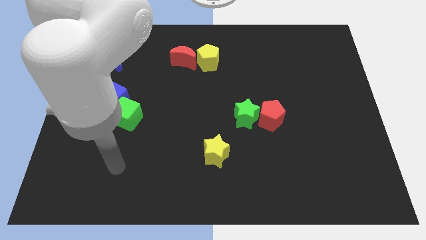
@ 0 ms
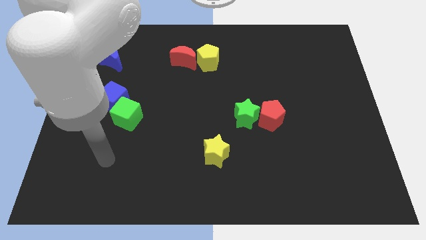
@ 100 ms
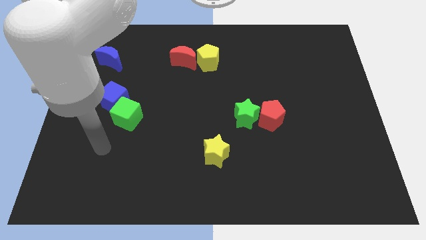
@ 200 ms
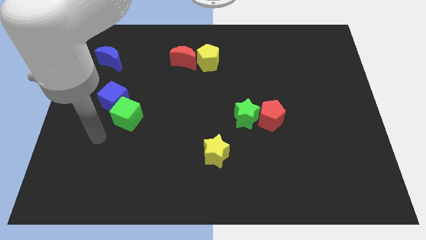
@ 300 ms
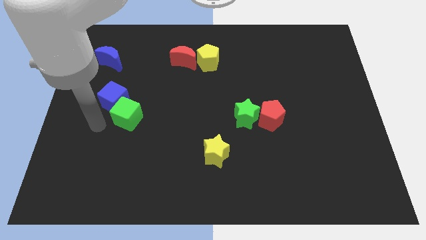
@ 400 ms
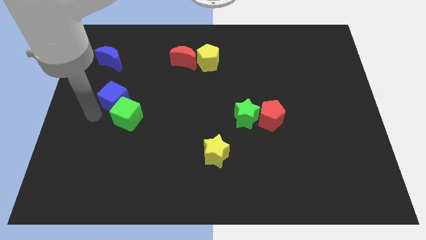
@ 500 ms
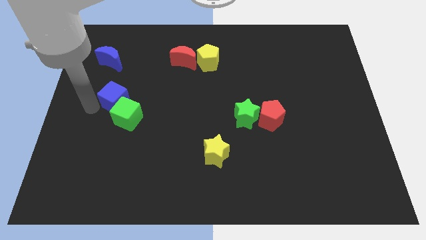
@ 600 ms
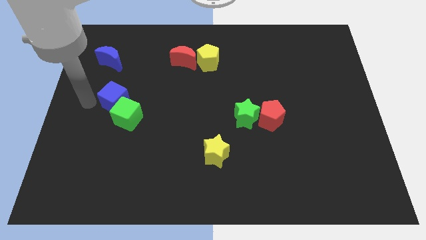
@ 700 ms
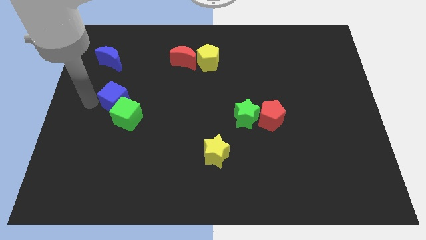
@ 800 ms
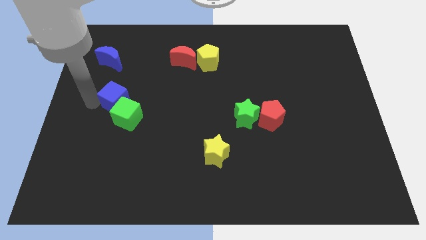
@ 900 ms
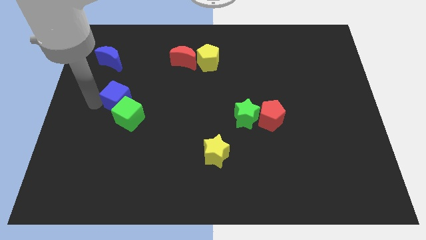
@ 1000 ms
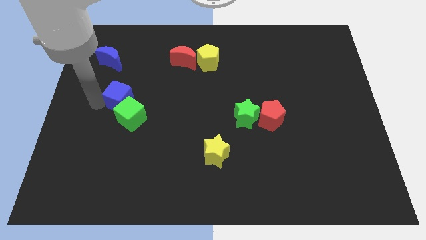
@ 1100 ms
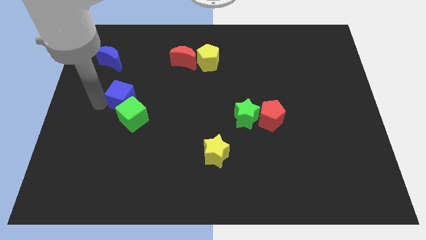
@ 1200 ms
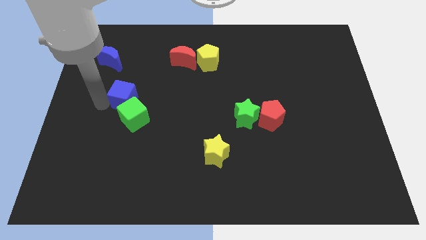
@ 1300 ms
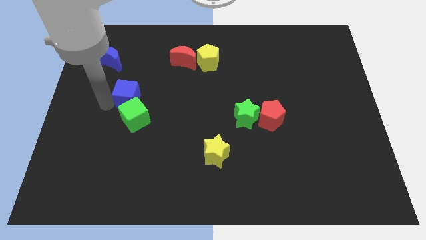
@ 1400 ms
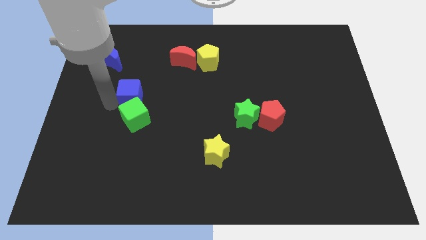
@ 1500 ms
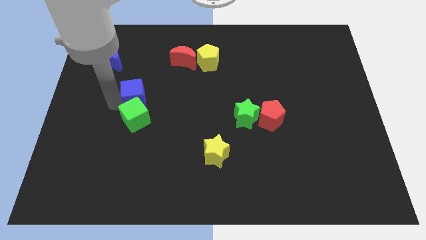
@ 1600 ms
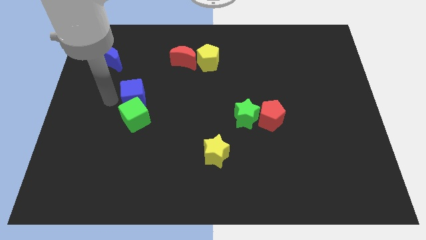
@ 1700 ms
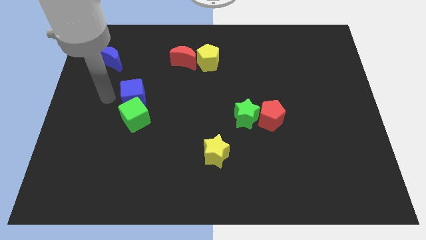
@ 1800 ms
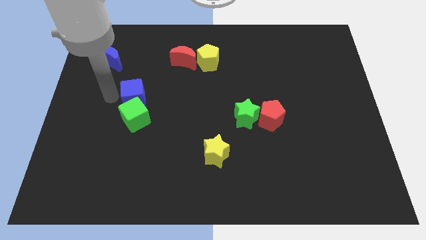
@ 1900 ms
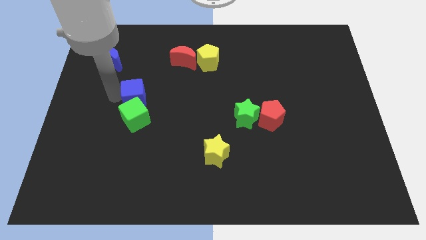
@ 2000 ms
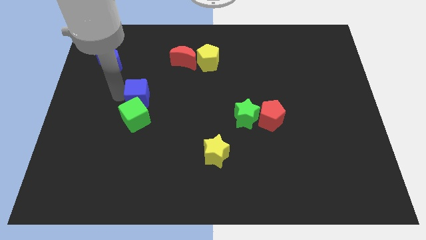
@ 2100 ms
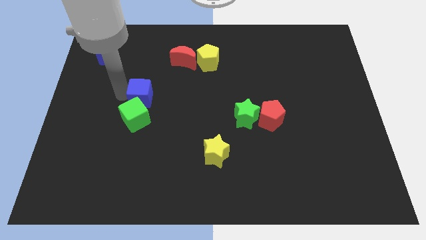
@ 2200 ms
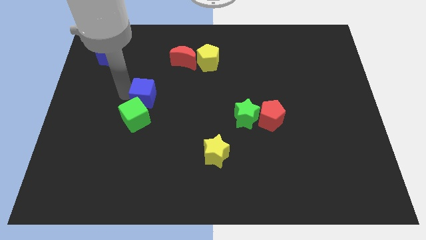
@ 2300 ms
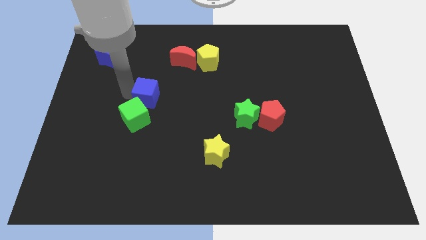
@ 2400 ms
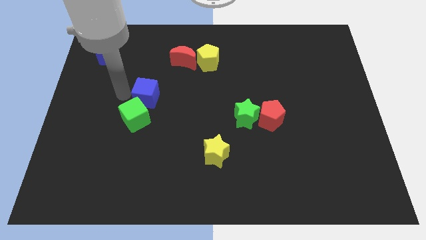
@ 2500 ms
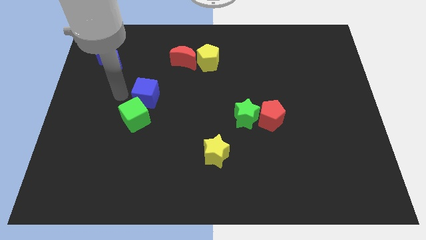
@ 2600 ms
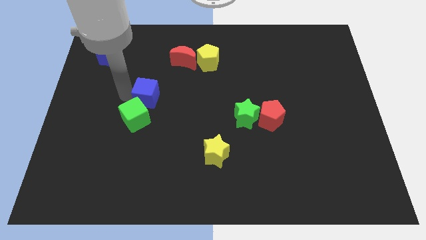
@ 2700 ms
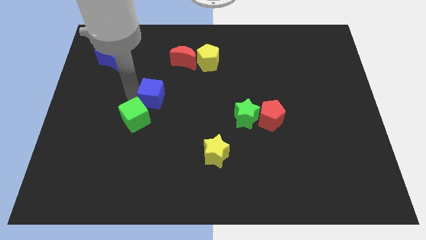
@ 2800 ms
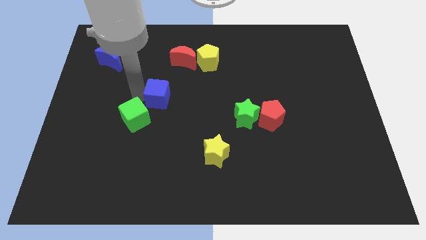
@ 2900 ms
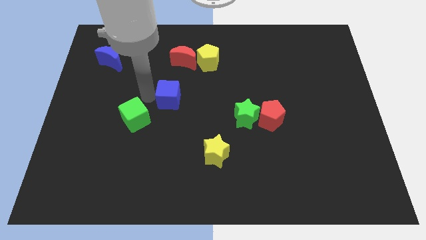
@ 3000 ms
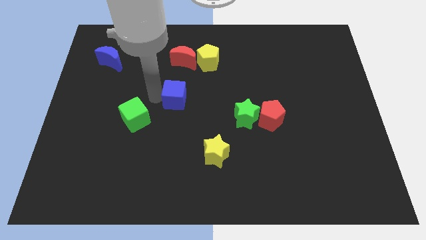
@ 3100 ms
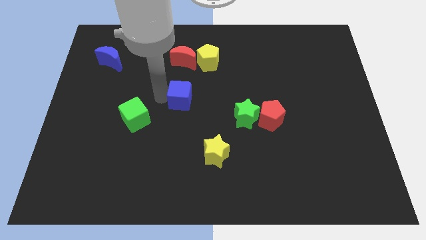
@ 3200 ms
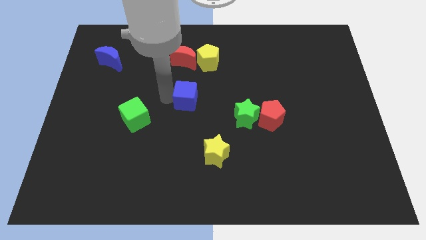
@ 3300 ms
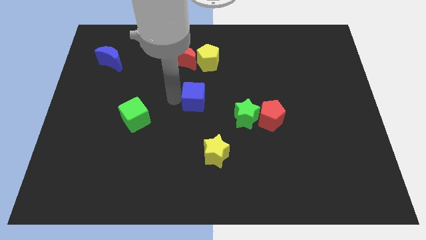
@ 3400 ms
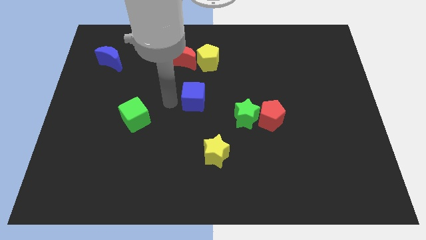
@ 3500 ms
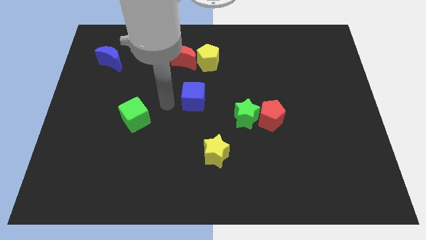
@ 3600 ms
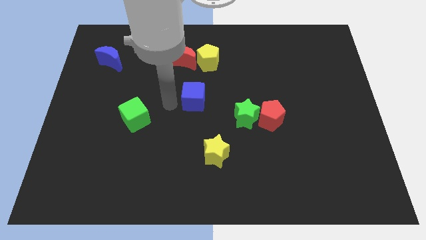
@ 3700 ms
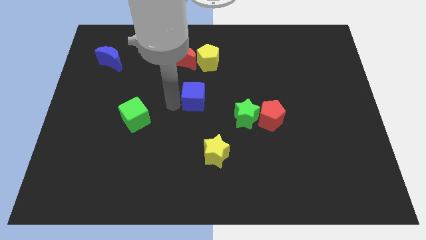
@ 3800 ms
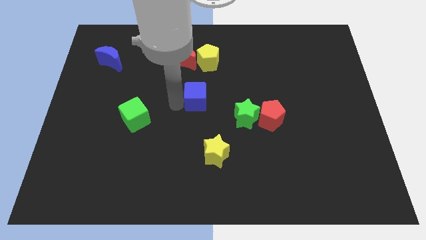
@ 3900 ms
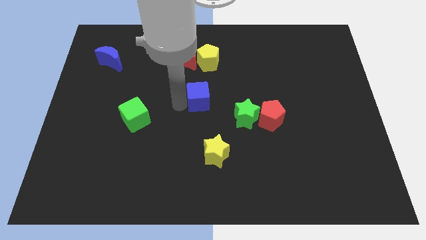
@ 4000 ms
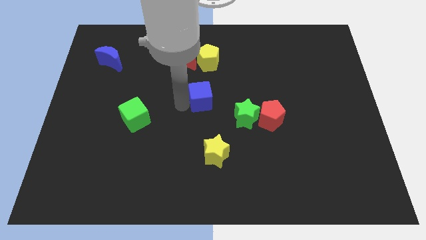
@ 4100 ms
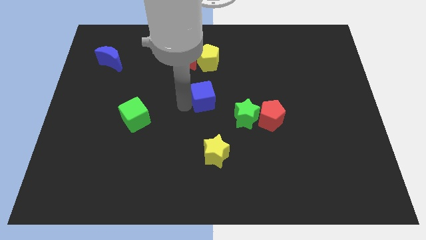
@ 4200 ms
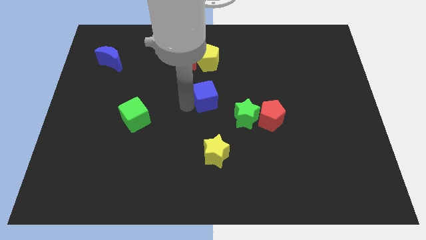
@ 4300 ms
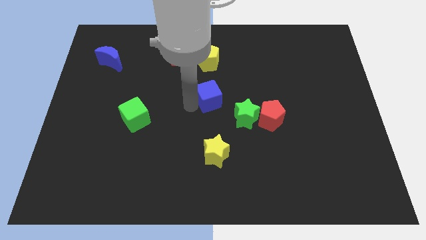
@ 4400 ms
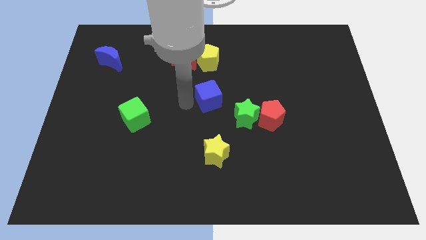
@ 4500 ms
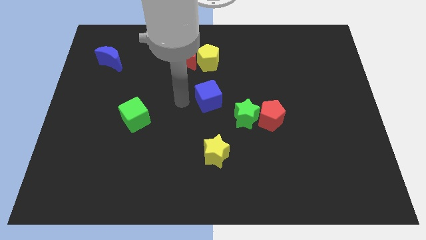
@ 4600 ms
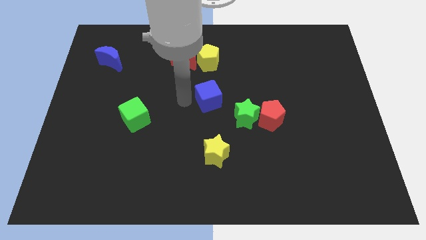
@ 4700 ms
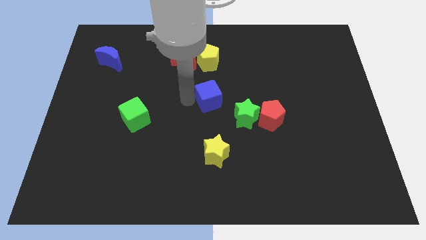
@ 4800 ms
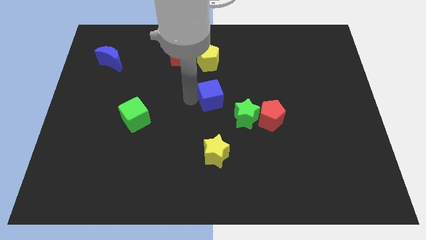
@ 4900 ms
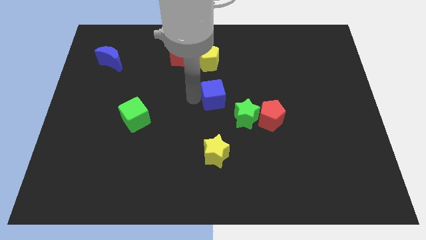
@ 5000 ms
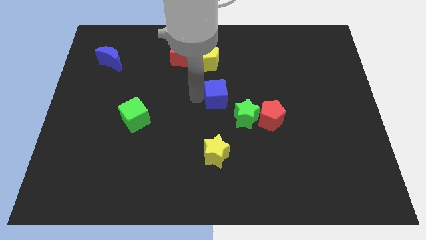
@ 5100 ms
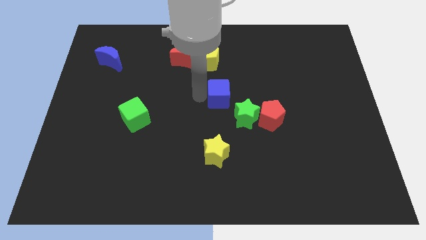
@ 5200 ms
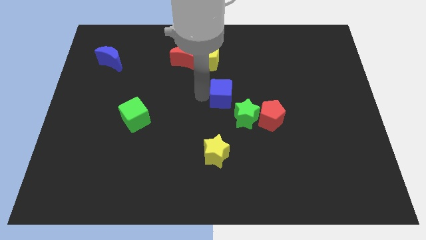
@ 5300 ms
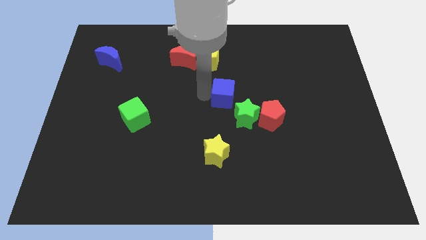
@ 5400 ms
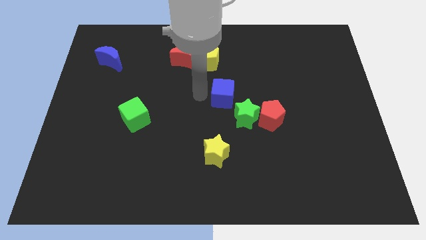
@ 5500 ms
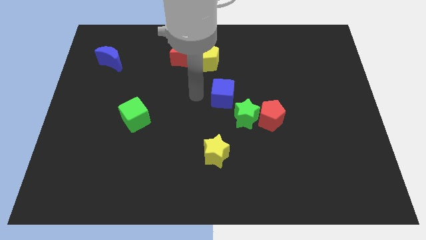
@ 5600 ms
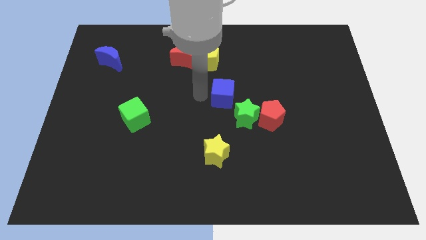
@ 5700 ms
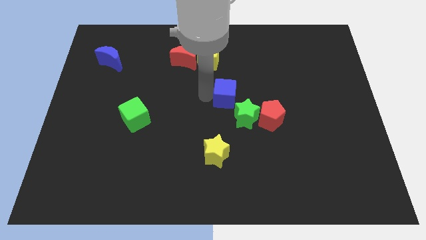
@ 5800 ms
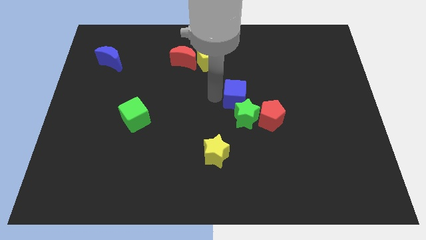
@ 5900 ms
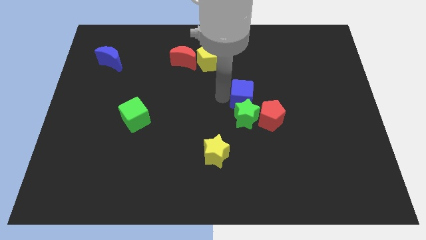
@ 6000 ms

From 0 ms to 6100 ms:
push the blue cube diagonally up and to the right of the green star

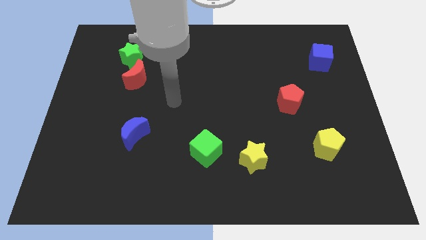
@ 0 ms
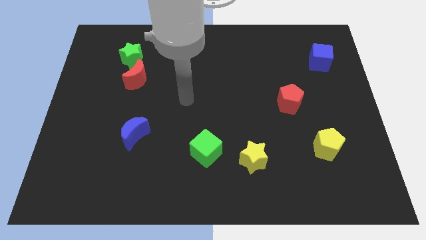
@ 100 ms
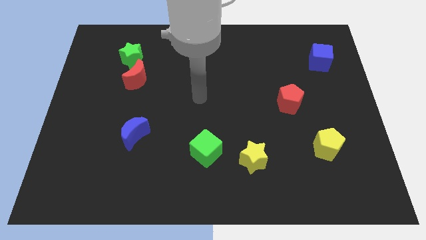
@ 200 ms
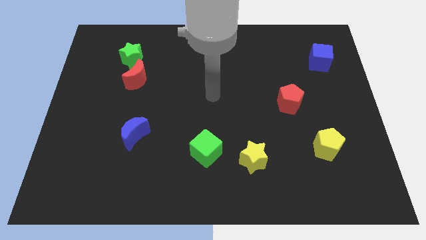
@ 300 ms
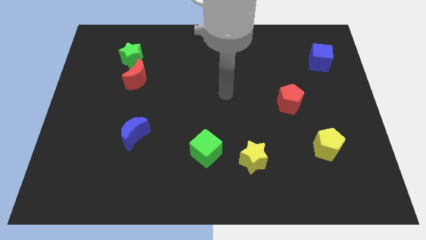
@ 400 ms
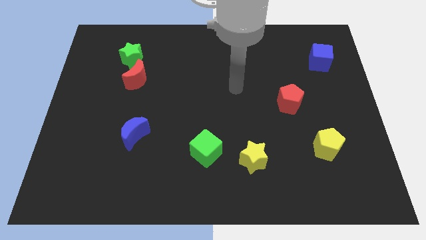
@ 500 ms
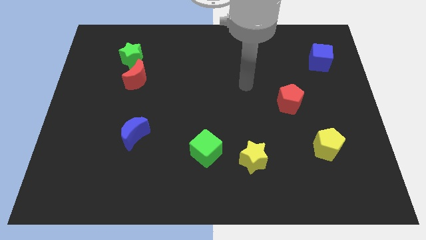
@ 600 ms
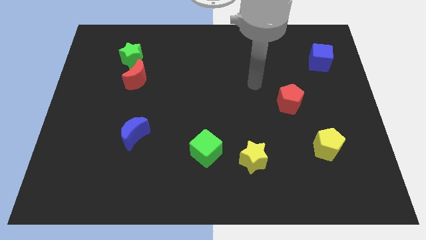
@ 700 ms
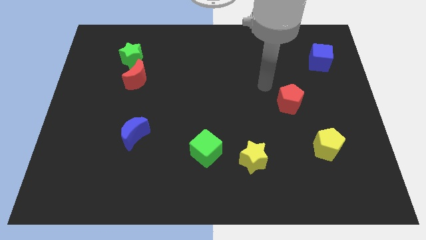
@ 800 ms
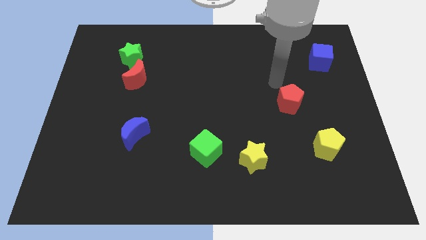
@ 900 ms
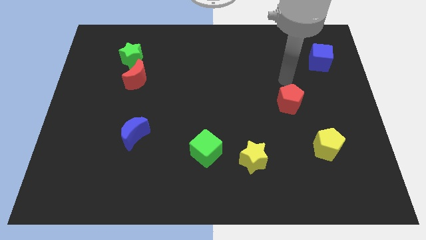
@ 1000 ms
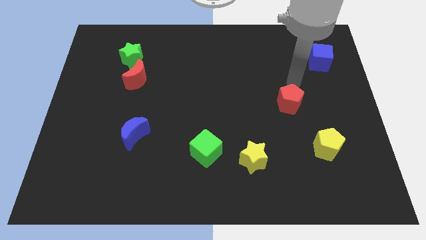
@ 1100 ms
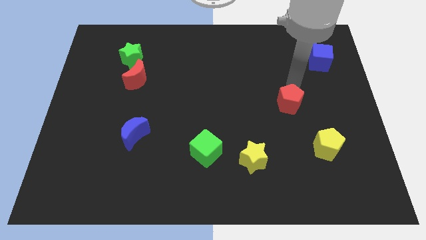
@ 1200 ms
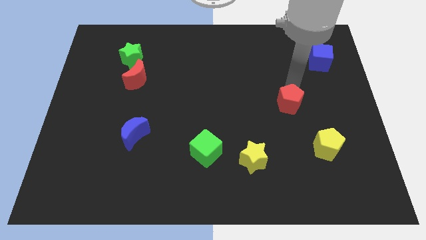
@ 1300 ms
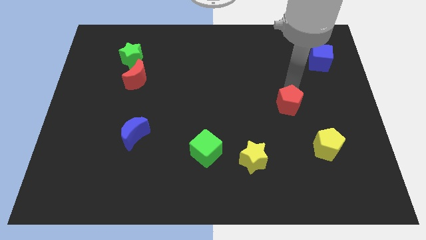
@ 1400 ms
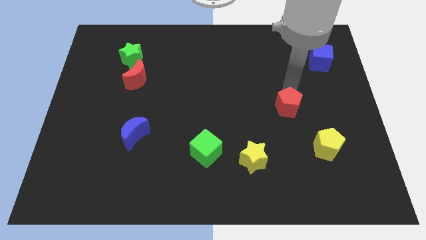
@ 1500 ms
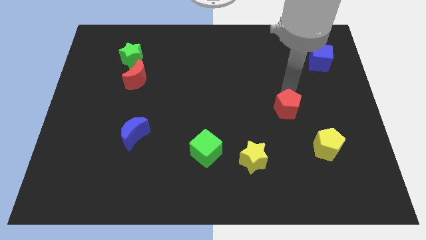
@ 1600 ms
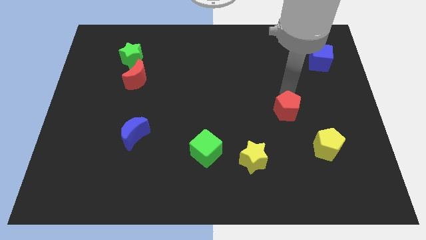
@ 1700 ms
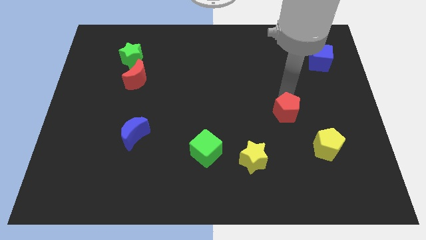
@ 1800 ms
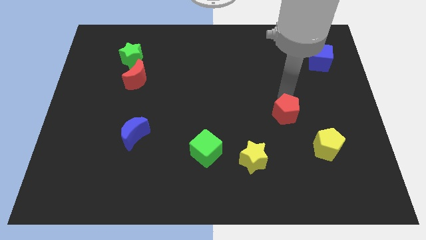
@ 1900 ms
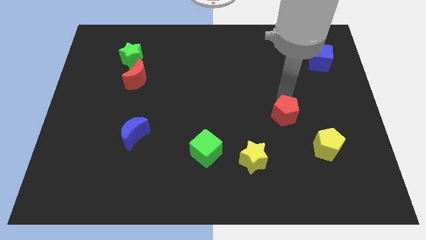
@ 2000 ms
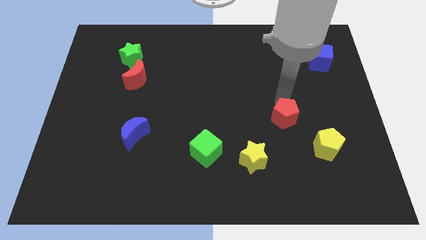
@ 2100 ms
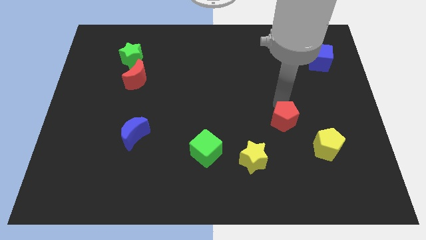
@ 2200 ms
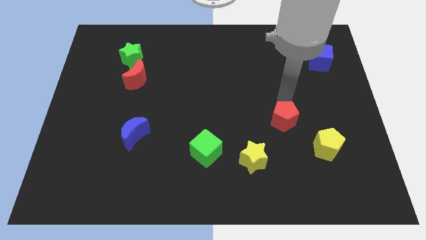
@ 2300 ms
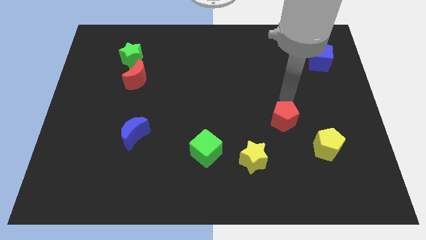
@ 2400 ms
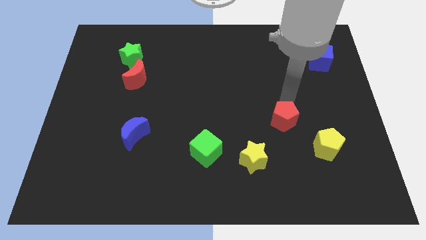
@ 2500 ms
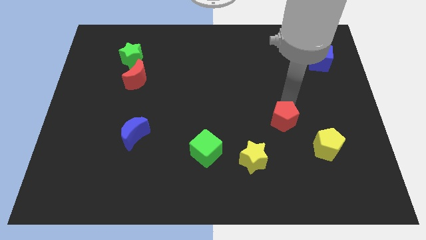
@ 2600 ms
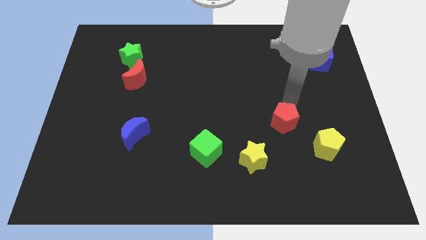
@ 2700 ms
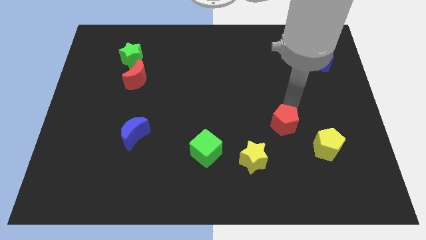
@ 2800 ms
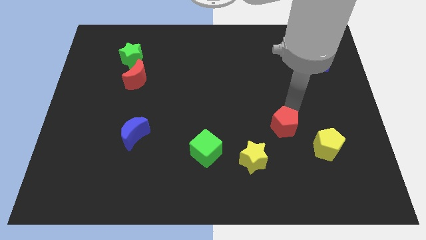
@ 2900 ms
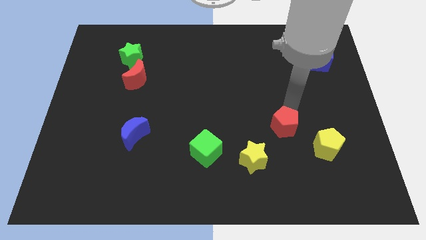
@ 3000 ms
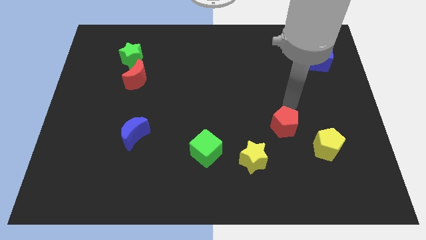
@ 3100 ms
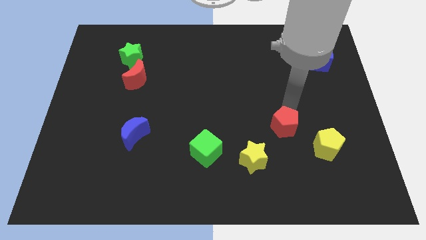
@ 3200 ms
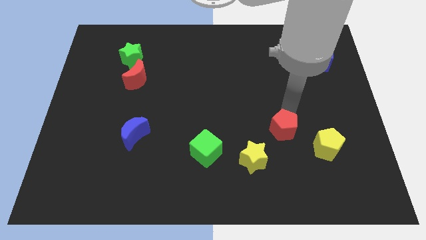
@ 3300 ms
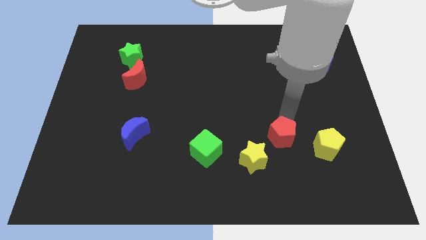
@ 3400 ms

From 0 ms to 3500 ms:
move the red pentagon to the left of the yellow pentagon
